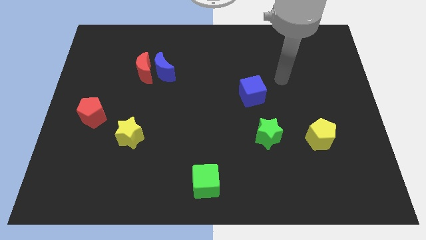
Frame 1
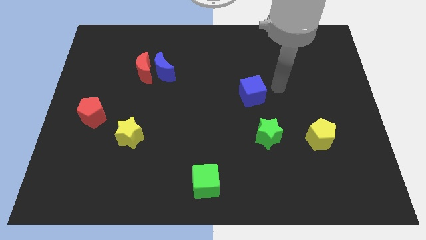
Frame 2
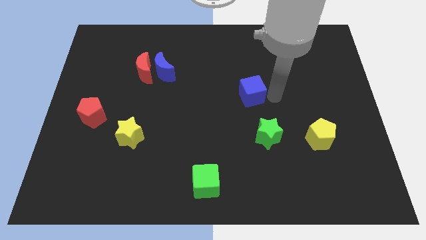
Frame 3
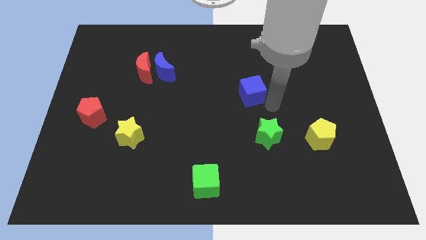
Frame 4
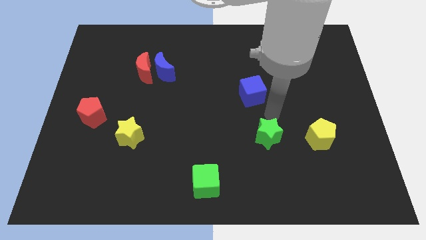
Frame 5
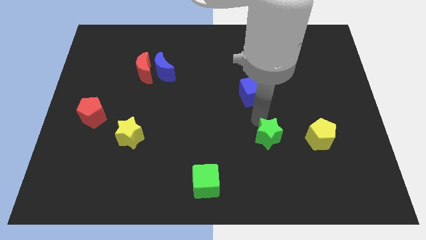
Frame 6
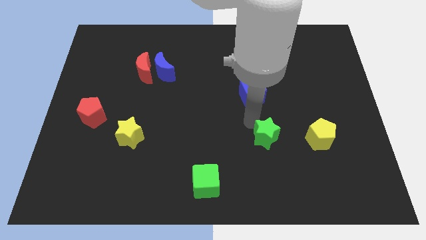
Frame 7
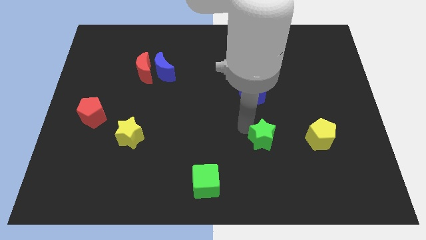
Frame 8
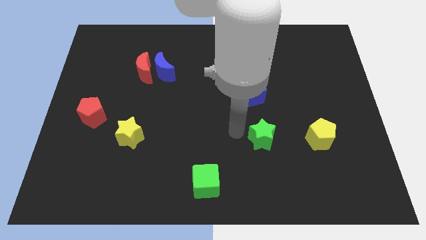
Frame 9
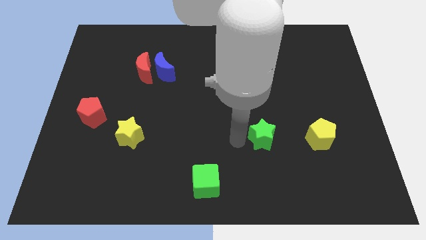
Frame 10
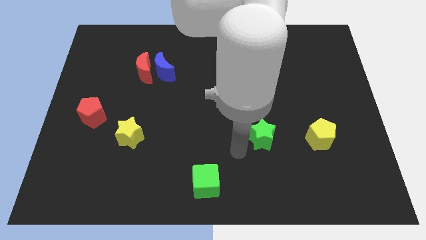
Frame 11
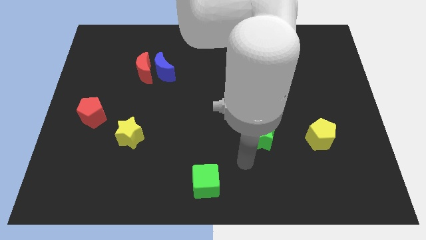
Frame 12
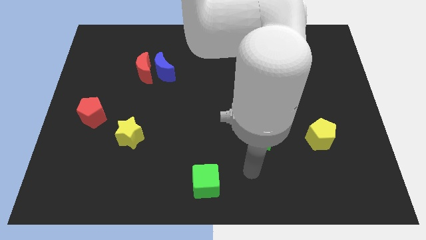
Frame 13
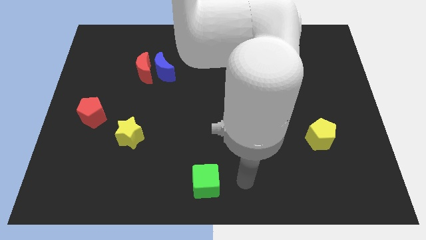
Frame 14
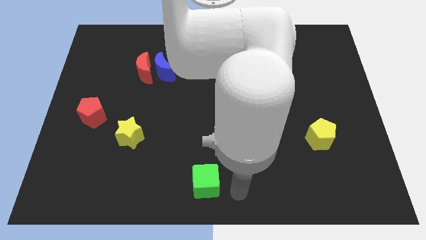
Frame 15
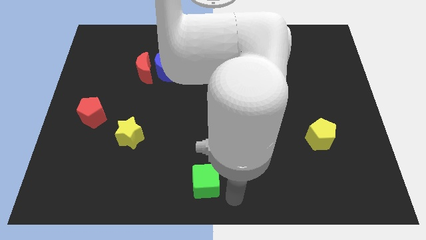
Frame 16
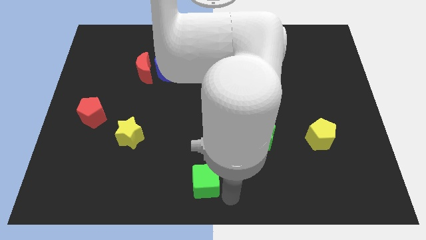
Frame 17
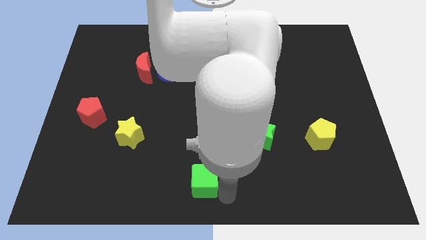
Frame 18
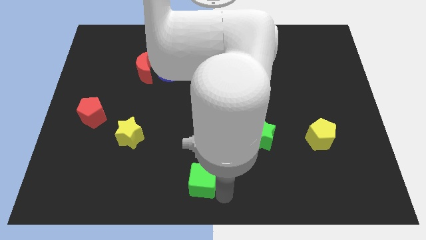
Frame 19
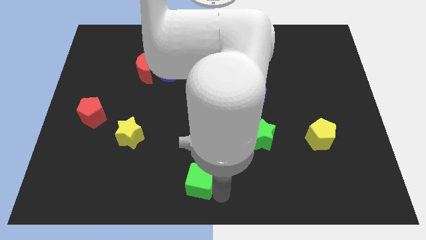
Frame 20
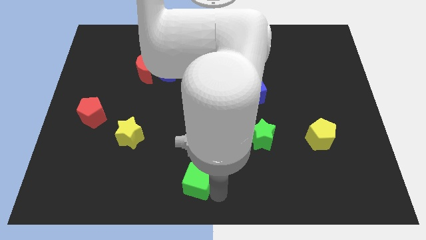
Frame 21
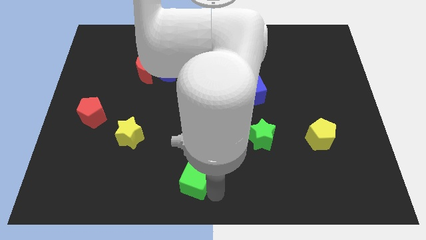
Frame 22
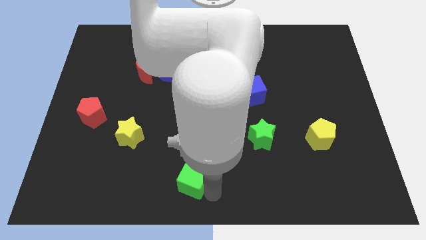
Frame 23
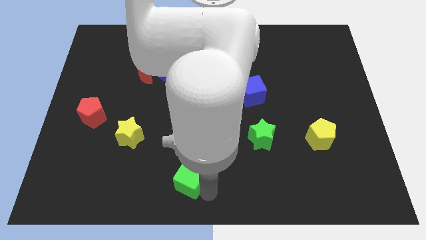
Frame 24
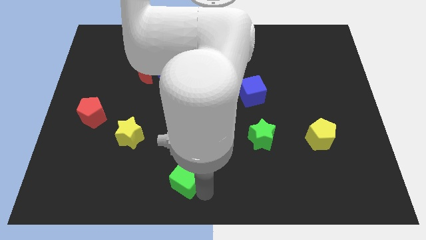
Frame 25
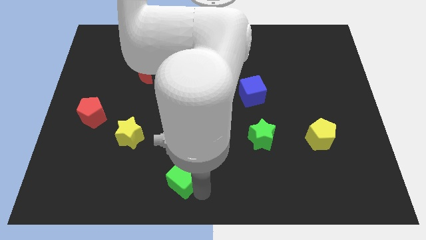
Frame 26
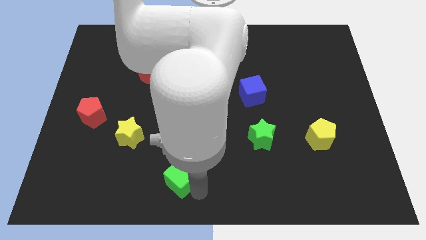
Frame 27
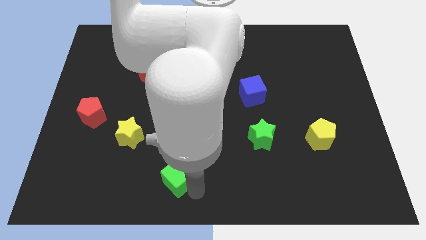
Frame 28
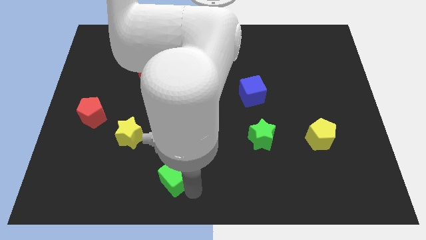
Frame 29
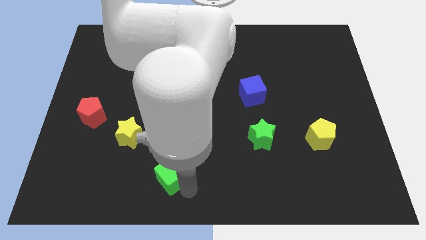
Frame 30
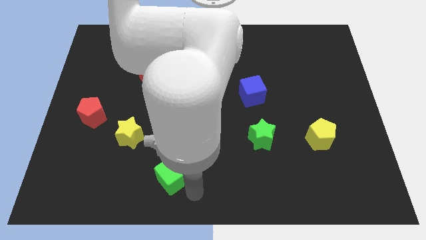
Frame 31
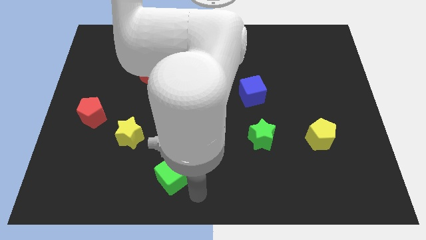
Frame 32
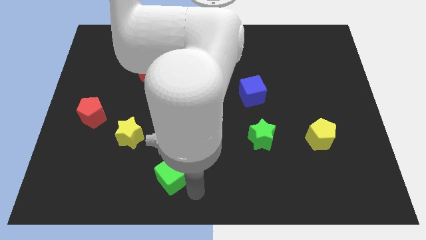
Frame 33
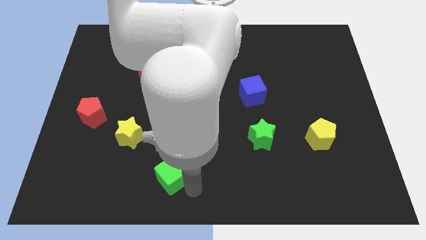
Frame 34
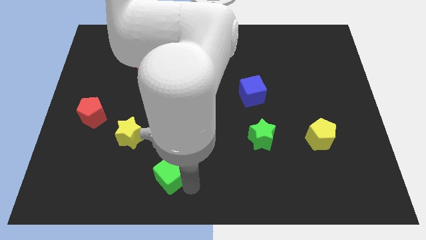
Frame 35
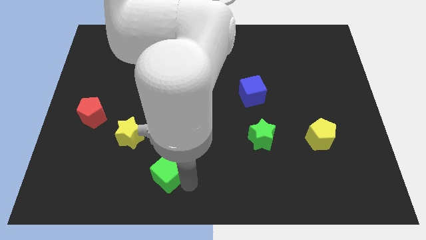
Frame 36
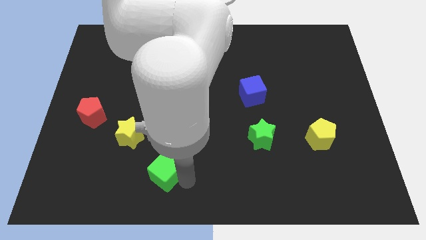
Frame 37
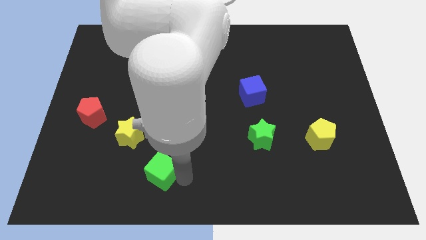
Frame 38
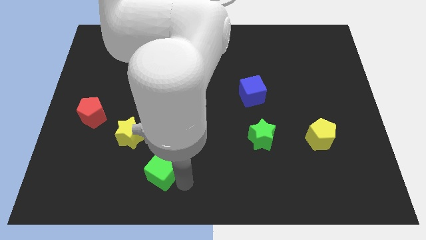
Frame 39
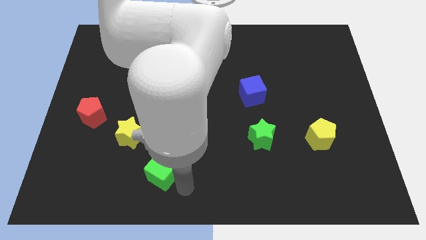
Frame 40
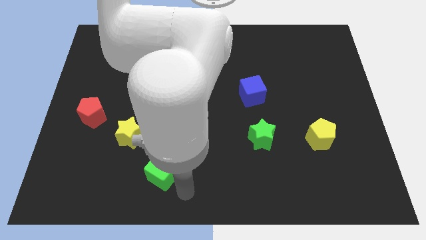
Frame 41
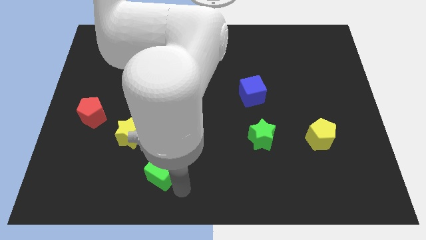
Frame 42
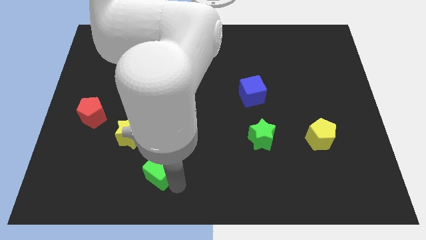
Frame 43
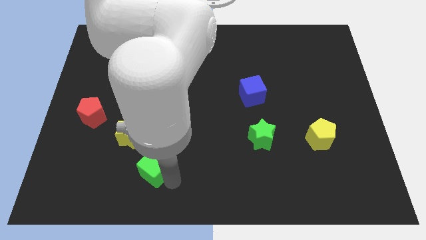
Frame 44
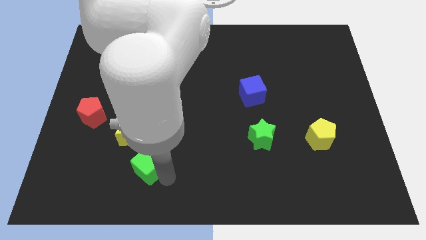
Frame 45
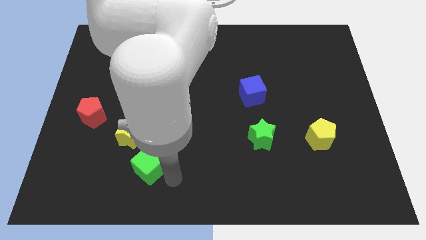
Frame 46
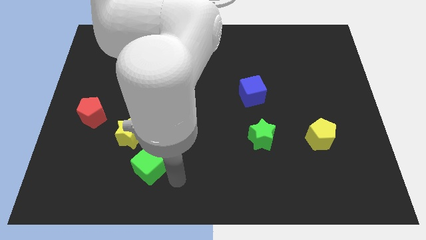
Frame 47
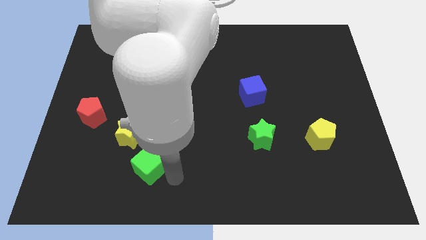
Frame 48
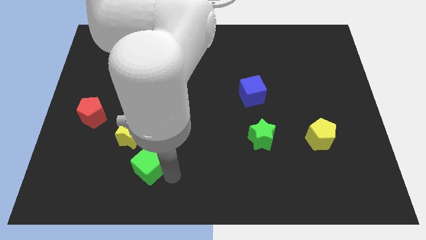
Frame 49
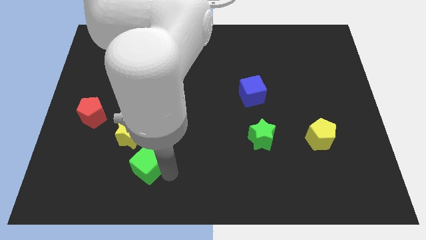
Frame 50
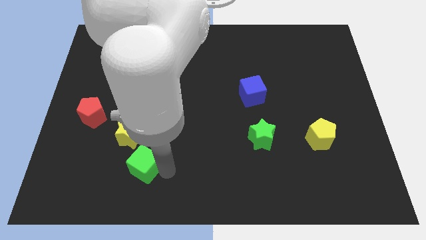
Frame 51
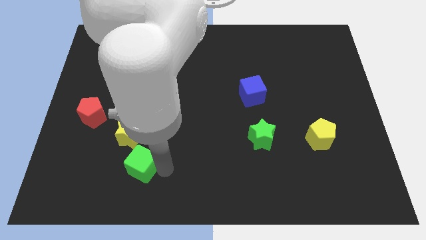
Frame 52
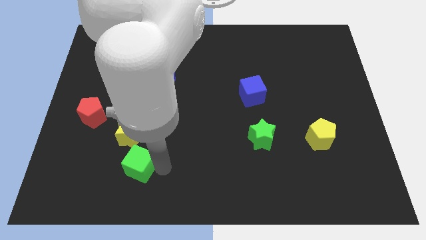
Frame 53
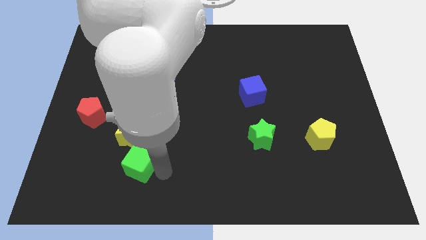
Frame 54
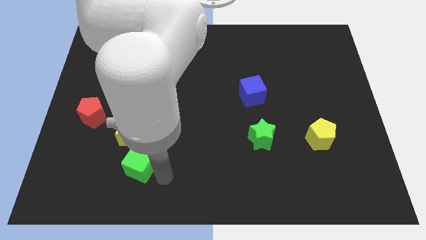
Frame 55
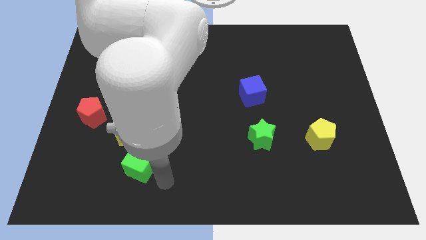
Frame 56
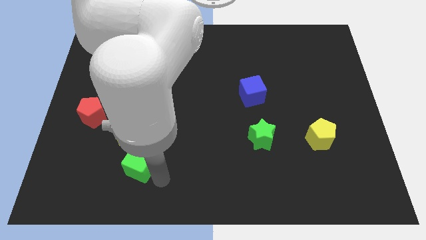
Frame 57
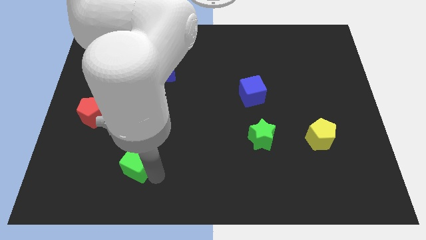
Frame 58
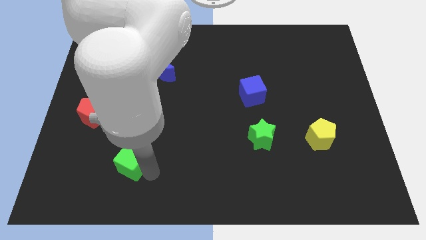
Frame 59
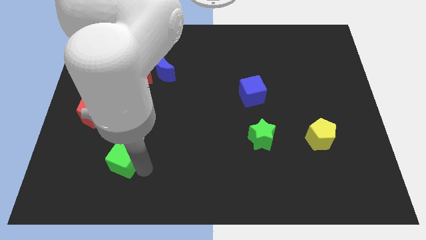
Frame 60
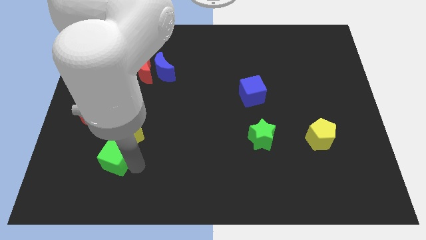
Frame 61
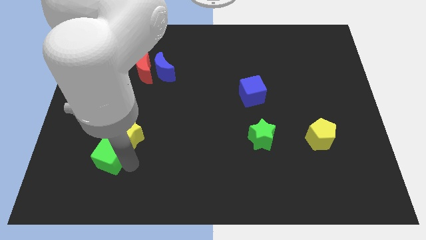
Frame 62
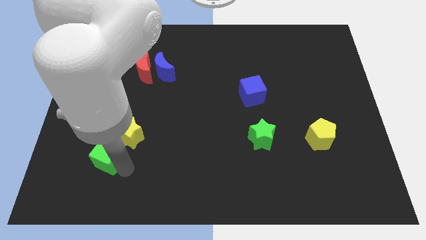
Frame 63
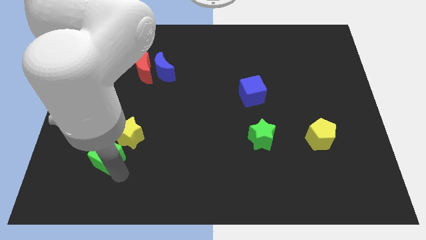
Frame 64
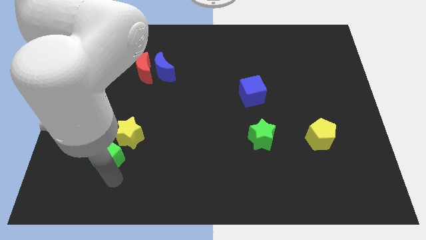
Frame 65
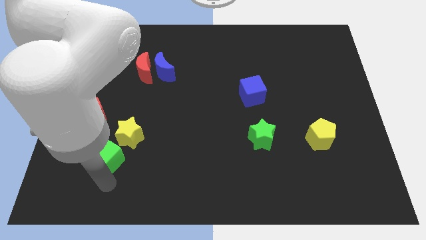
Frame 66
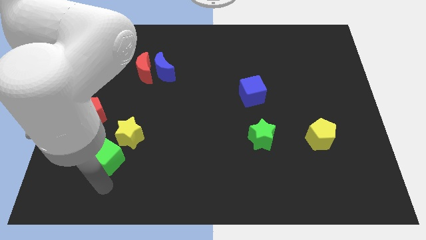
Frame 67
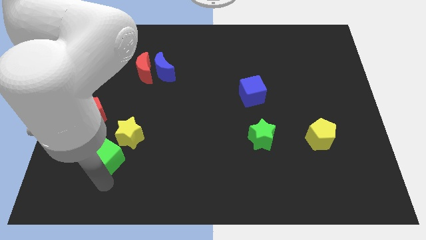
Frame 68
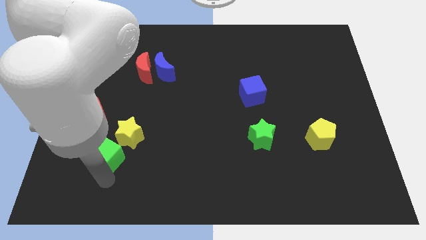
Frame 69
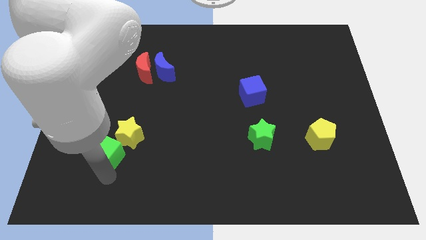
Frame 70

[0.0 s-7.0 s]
push the green cube diagonally down and to the right of the red pentagon

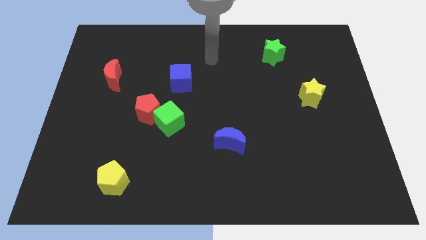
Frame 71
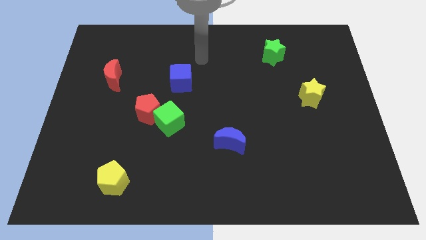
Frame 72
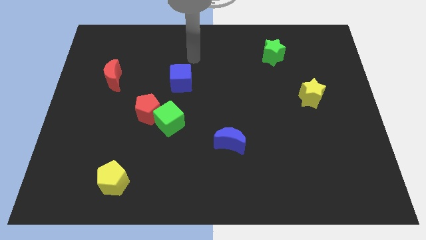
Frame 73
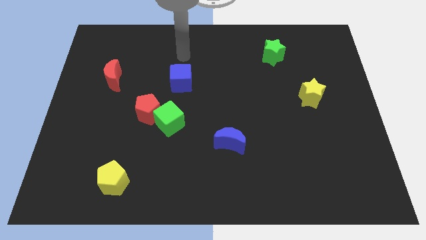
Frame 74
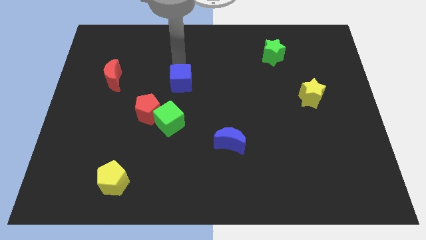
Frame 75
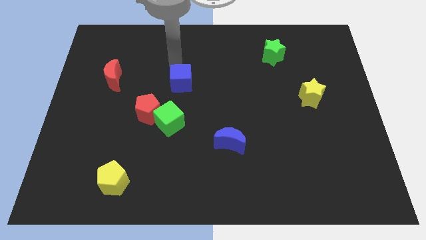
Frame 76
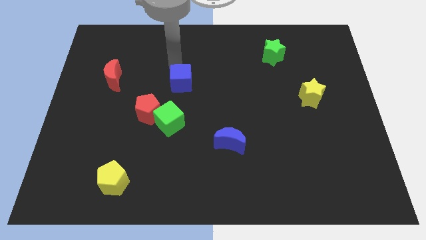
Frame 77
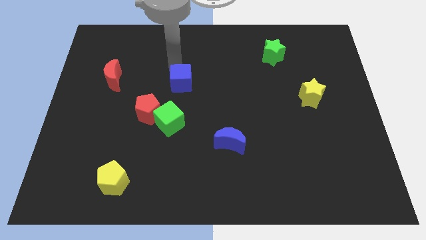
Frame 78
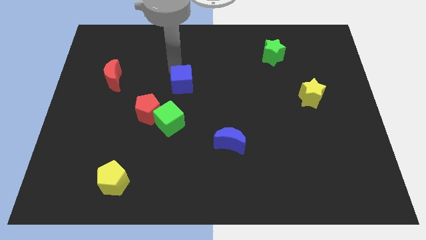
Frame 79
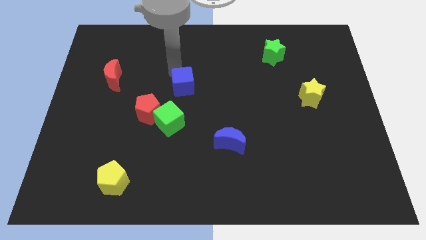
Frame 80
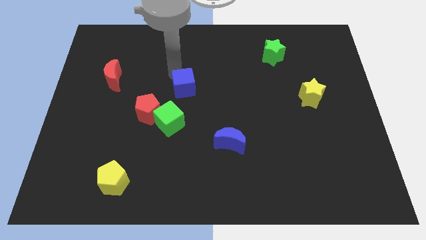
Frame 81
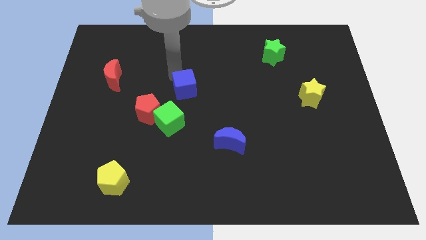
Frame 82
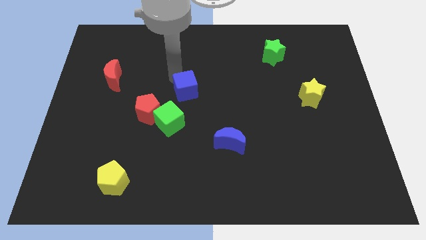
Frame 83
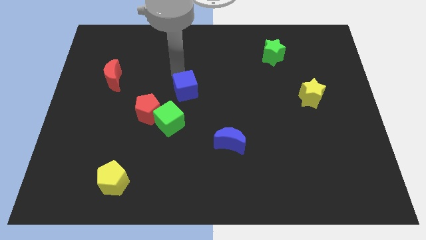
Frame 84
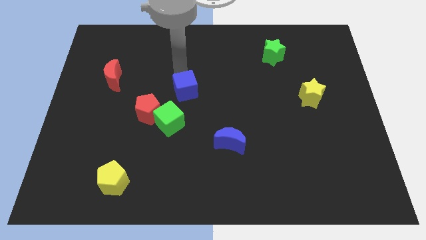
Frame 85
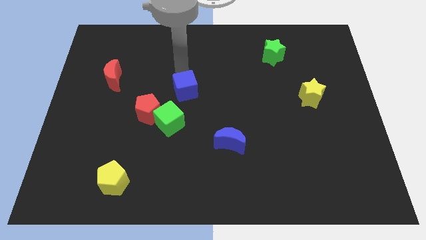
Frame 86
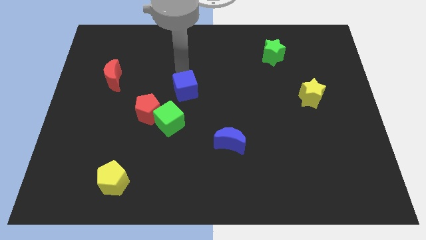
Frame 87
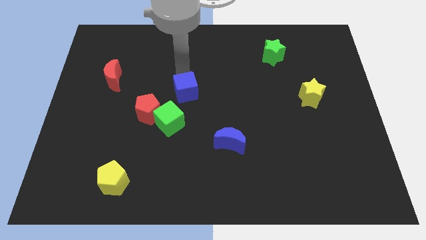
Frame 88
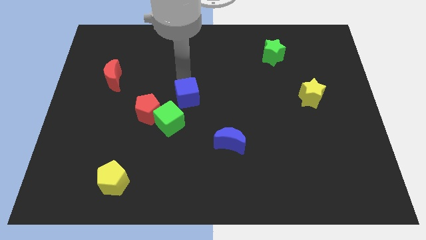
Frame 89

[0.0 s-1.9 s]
put the blue cube just right of the red pentagon
